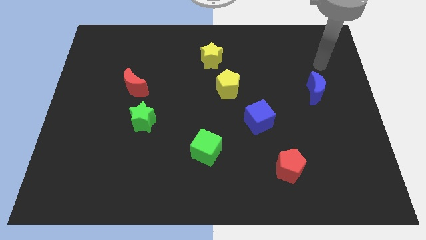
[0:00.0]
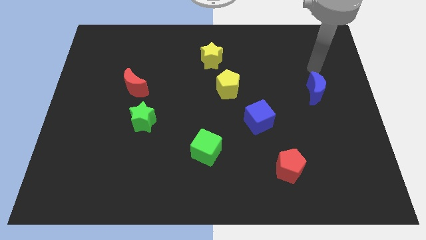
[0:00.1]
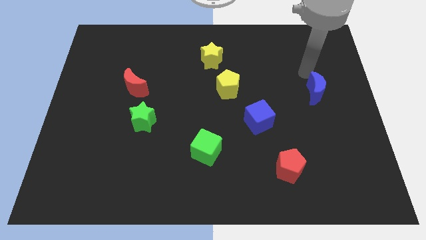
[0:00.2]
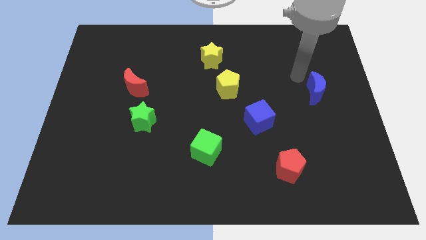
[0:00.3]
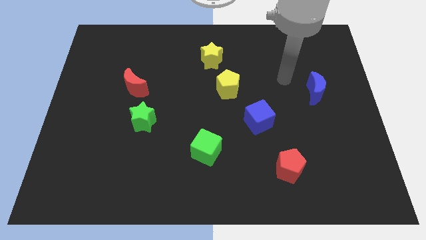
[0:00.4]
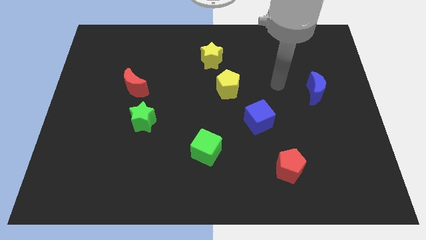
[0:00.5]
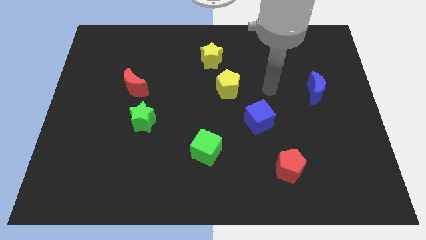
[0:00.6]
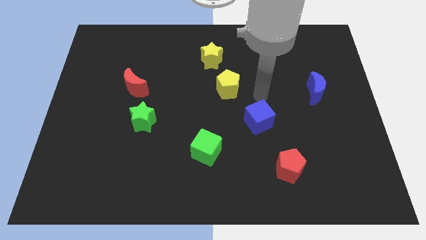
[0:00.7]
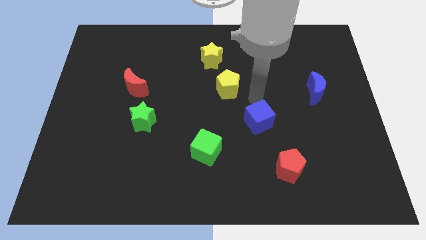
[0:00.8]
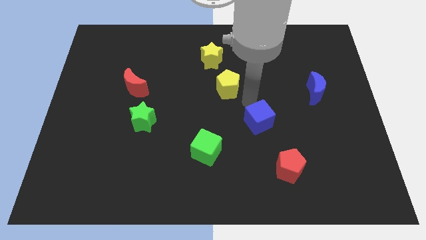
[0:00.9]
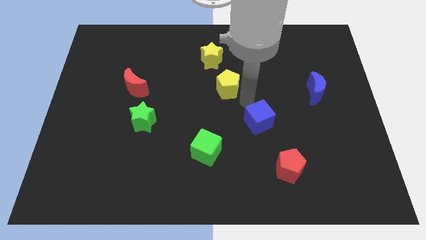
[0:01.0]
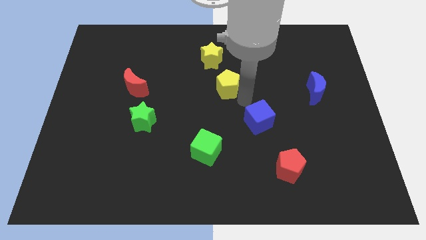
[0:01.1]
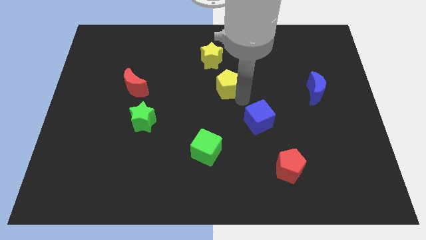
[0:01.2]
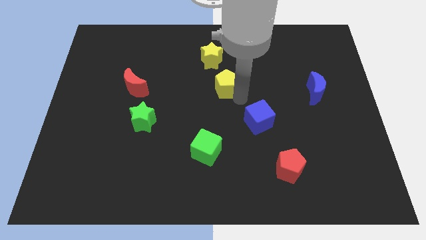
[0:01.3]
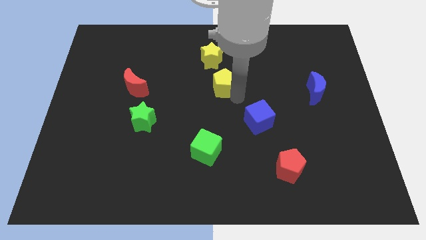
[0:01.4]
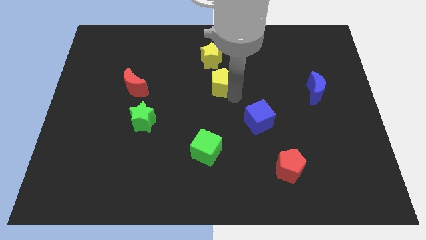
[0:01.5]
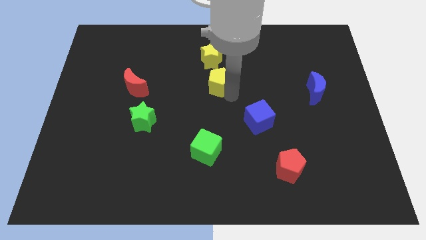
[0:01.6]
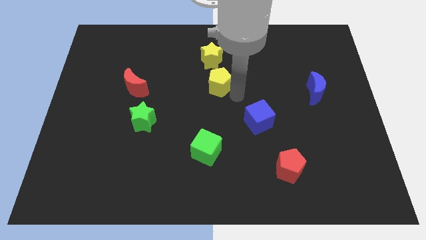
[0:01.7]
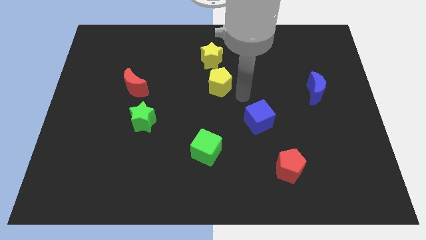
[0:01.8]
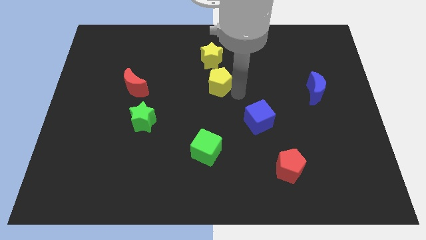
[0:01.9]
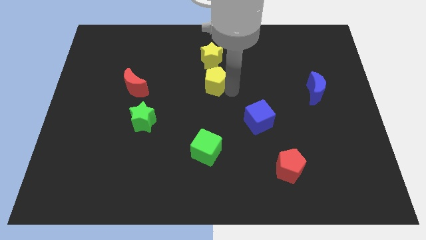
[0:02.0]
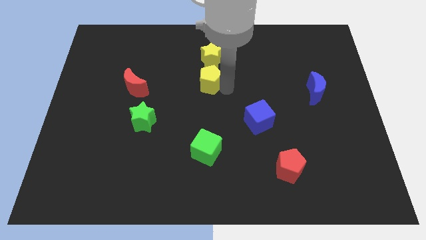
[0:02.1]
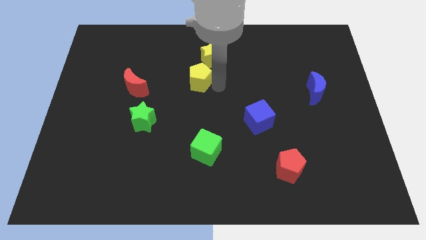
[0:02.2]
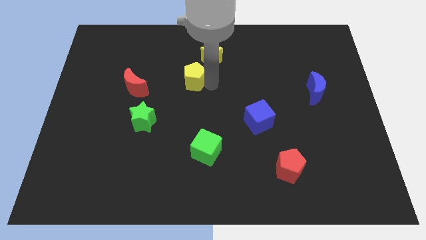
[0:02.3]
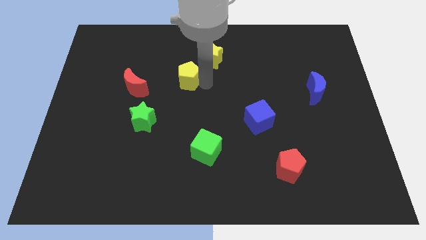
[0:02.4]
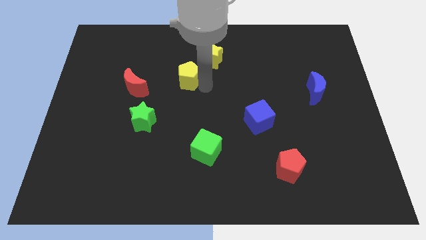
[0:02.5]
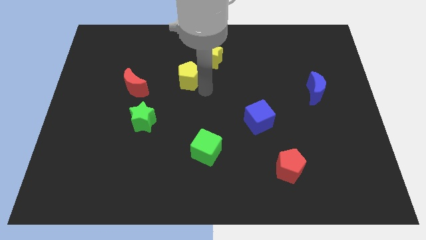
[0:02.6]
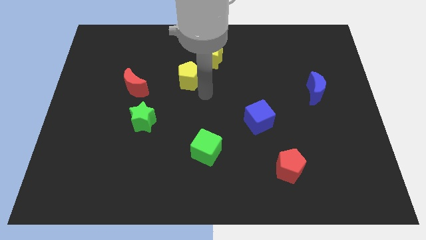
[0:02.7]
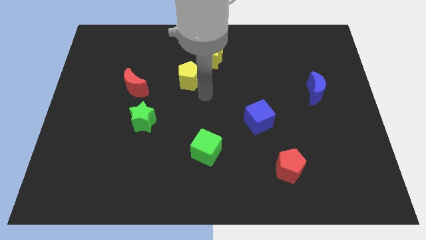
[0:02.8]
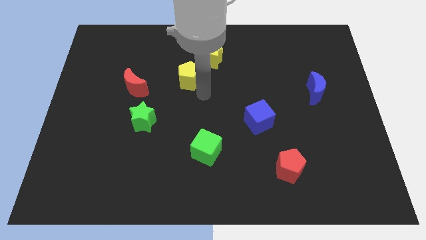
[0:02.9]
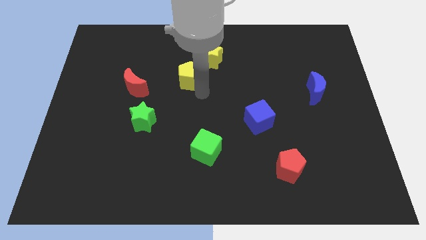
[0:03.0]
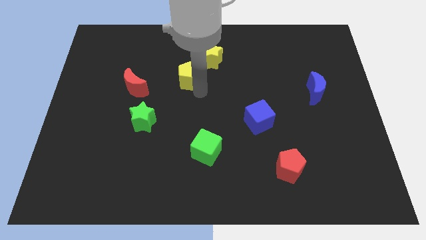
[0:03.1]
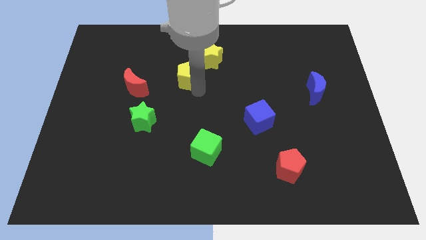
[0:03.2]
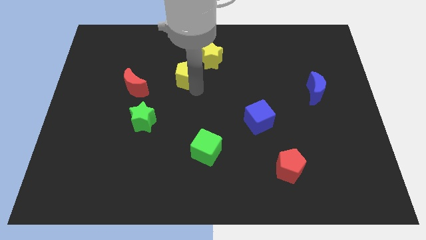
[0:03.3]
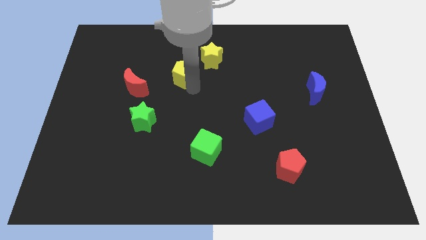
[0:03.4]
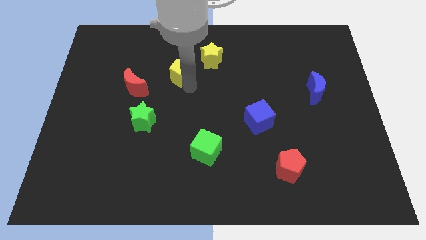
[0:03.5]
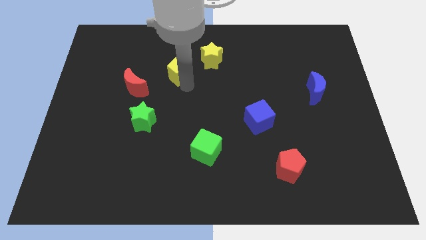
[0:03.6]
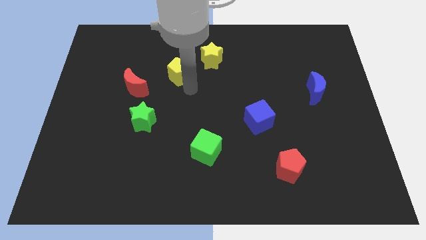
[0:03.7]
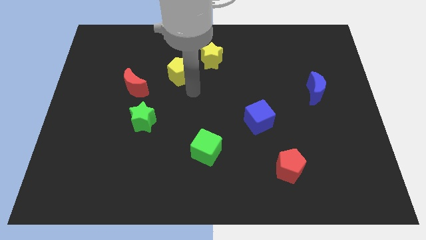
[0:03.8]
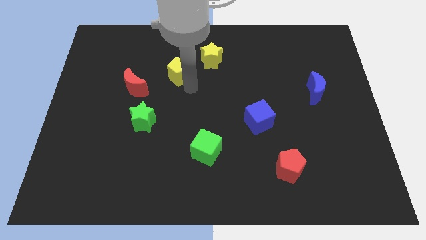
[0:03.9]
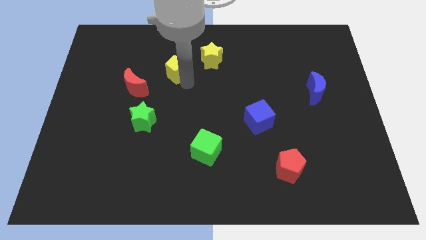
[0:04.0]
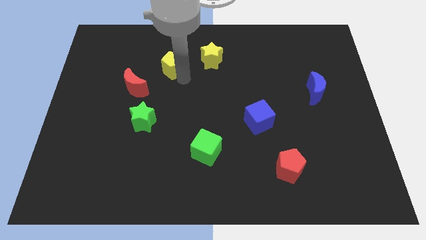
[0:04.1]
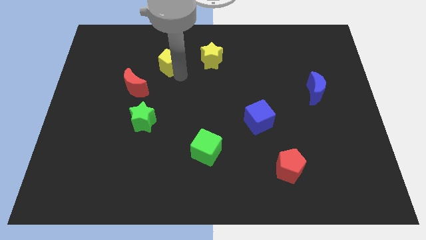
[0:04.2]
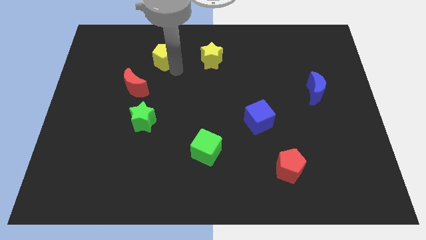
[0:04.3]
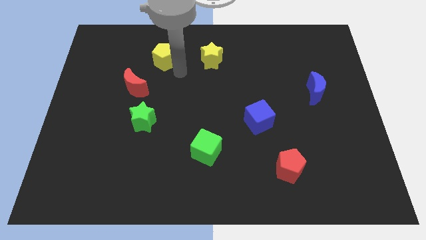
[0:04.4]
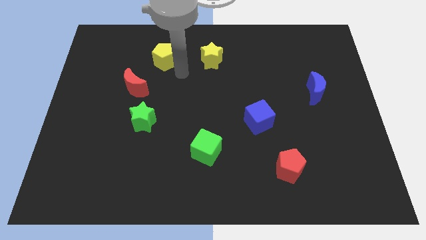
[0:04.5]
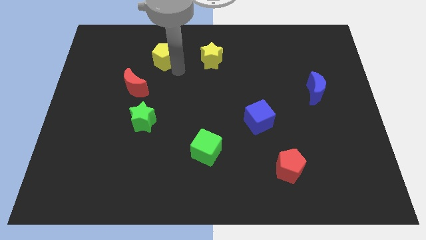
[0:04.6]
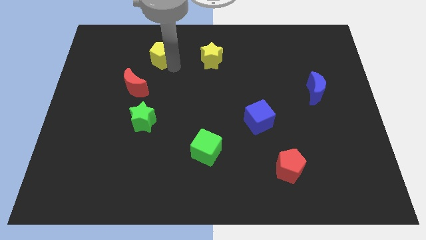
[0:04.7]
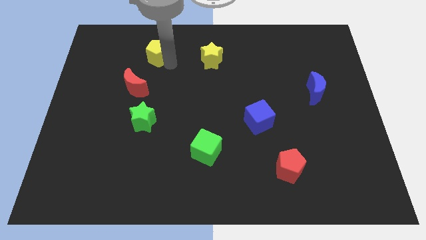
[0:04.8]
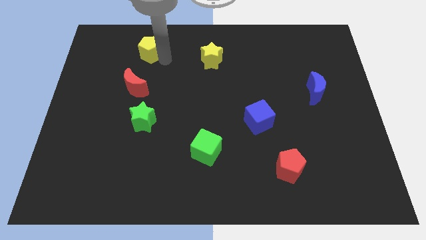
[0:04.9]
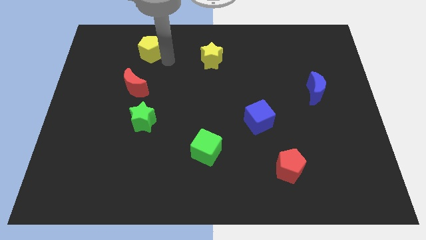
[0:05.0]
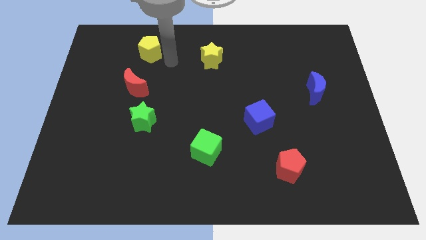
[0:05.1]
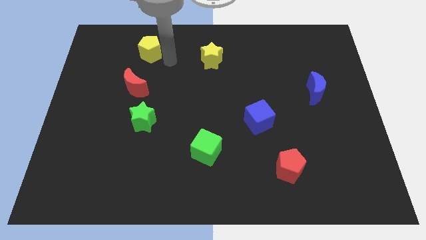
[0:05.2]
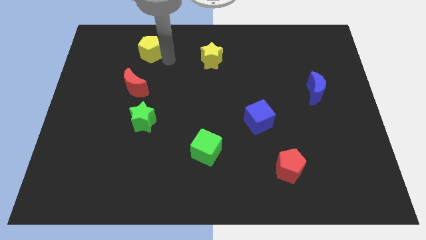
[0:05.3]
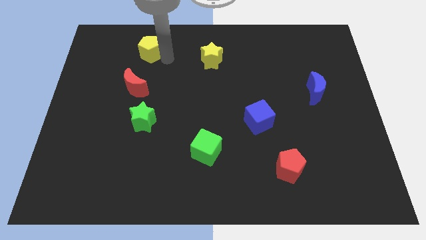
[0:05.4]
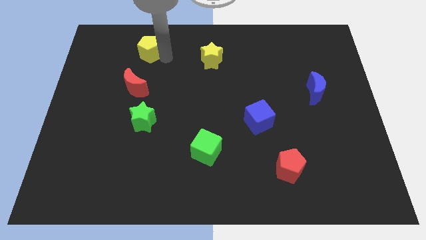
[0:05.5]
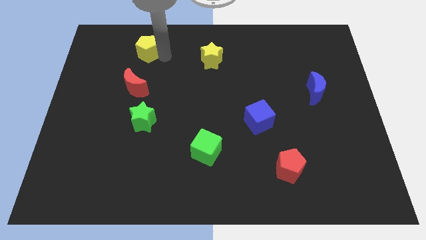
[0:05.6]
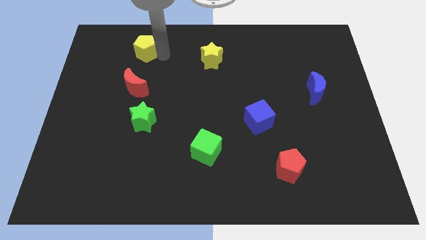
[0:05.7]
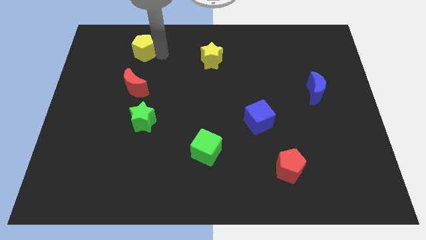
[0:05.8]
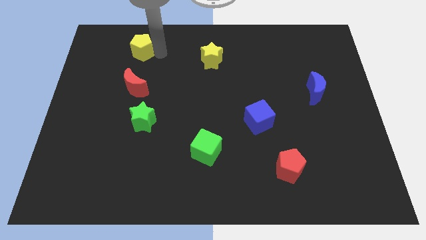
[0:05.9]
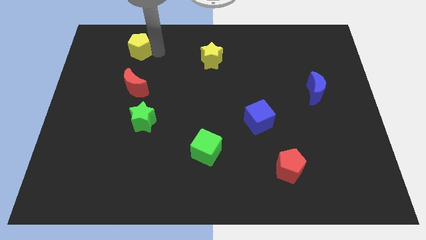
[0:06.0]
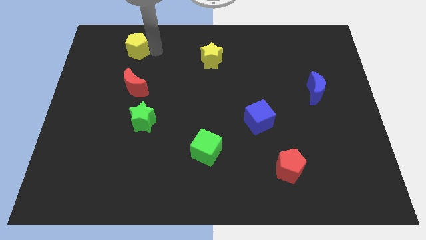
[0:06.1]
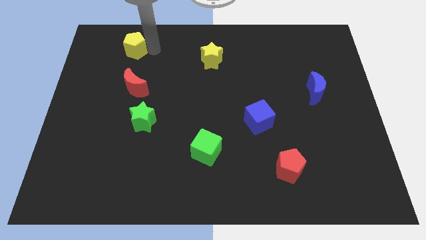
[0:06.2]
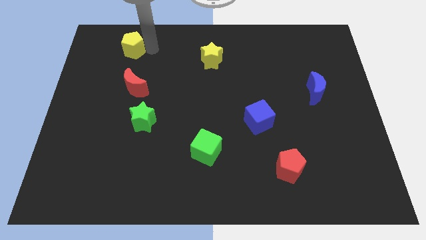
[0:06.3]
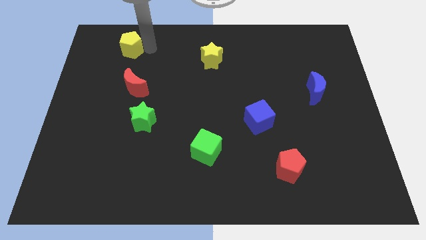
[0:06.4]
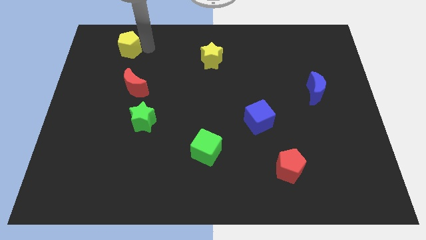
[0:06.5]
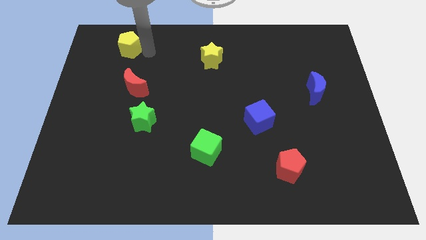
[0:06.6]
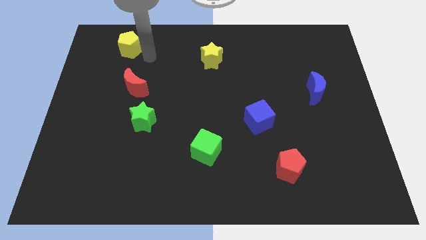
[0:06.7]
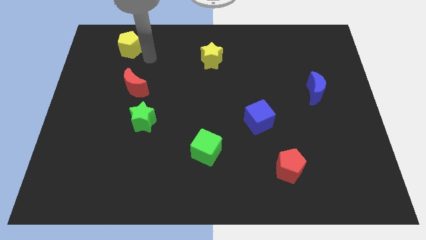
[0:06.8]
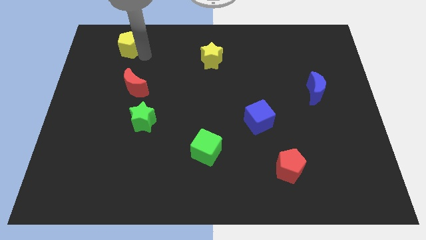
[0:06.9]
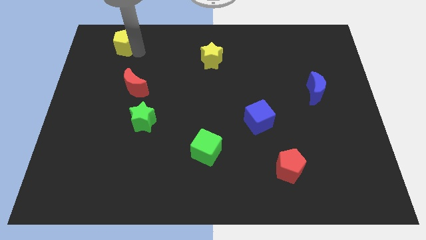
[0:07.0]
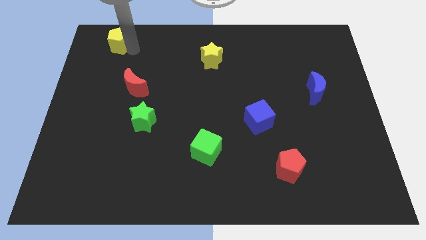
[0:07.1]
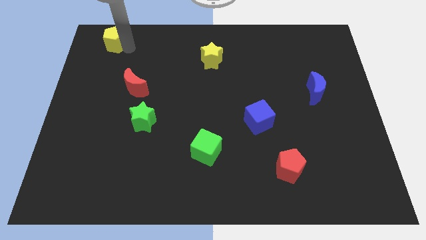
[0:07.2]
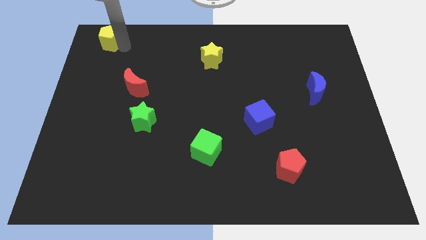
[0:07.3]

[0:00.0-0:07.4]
move the yellow pentagon to the top left
